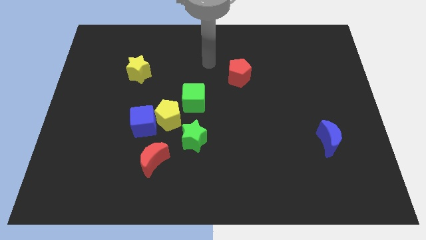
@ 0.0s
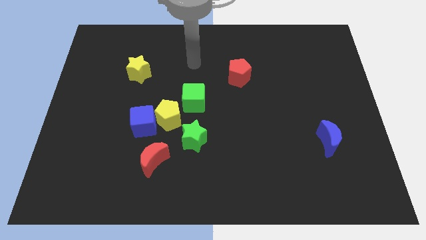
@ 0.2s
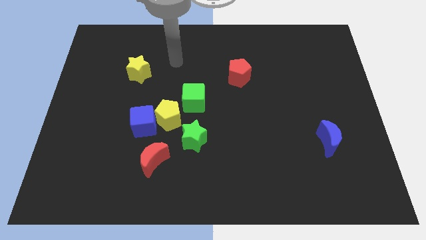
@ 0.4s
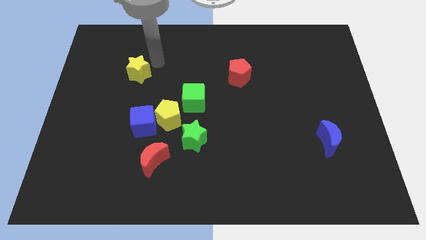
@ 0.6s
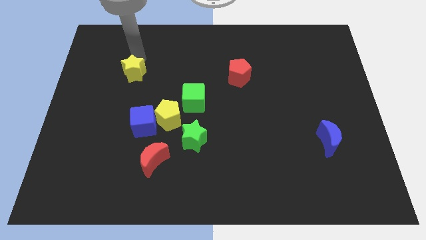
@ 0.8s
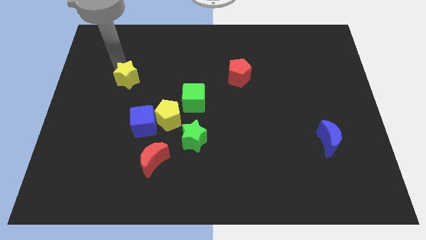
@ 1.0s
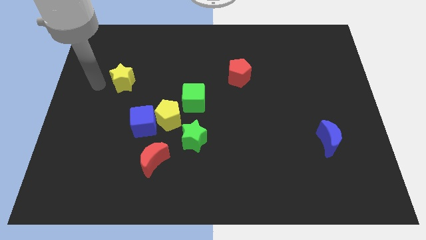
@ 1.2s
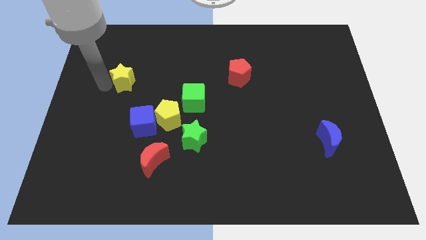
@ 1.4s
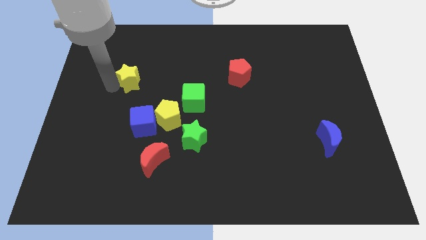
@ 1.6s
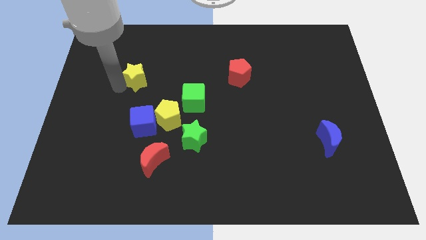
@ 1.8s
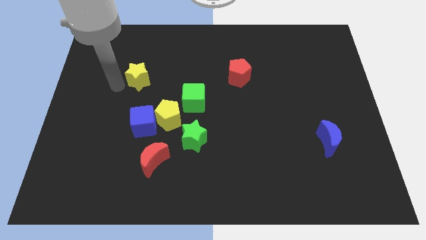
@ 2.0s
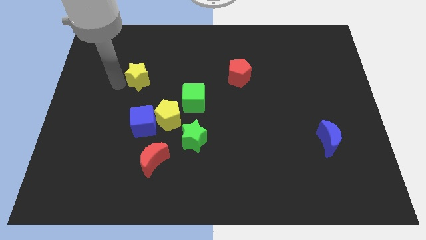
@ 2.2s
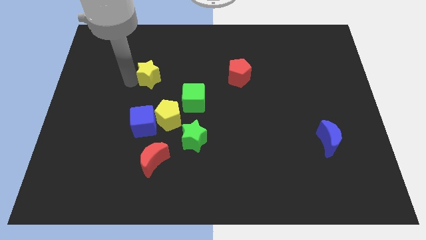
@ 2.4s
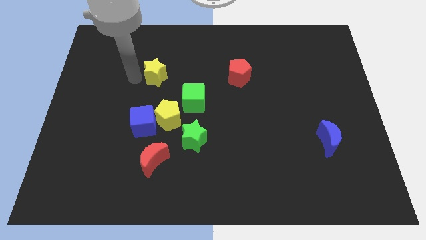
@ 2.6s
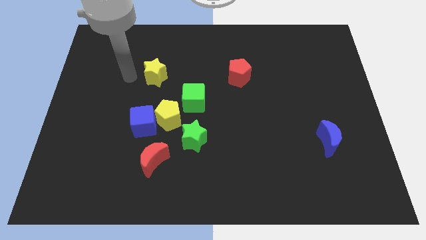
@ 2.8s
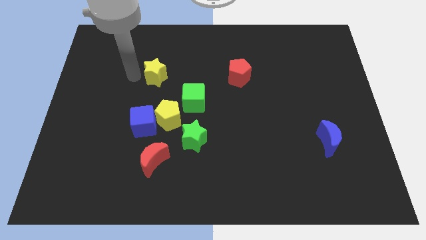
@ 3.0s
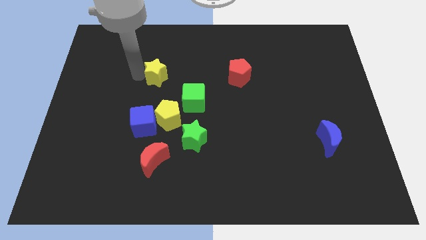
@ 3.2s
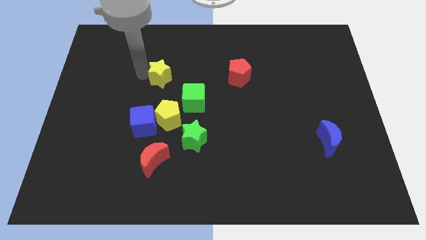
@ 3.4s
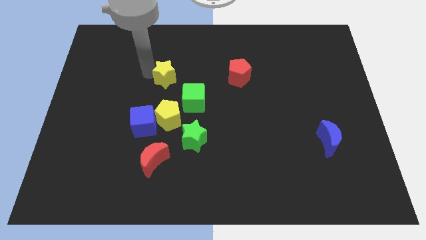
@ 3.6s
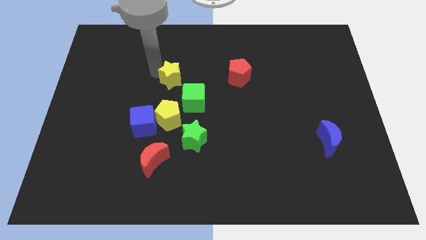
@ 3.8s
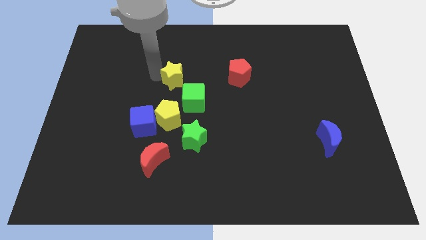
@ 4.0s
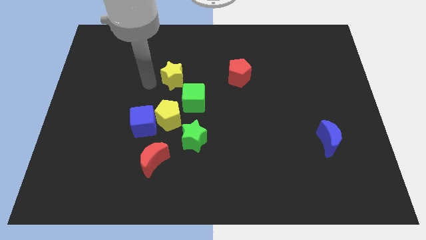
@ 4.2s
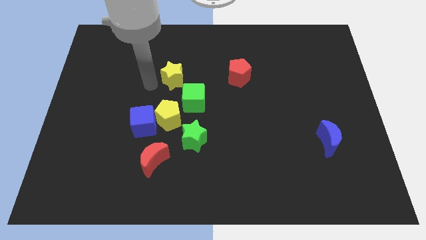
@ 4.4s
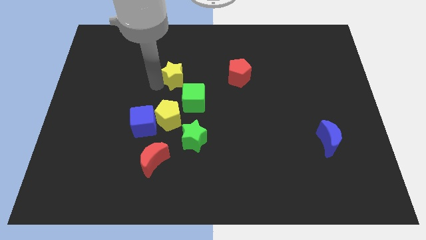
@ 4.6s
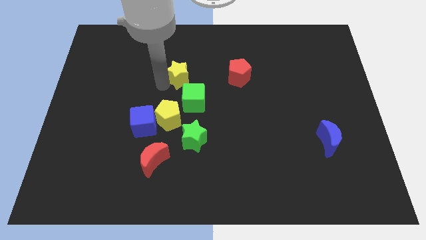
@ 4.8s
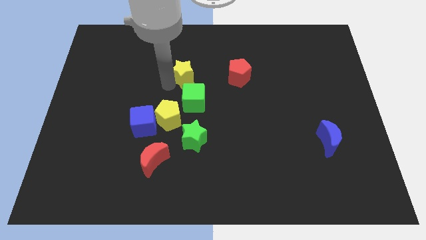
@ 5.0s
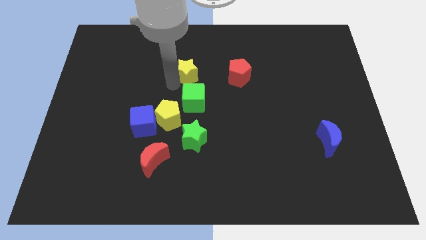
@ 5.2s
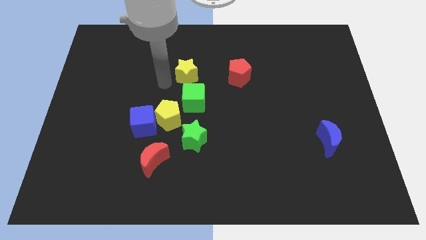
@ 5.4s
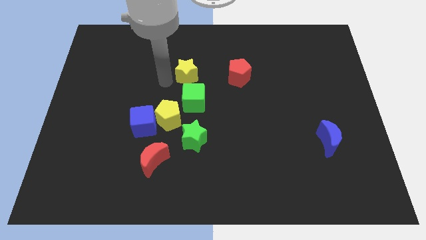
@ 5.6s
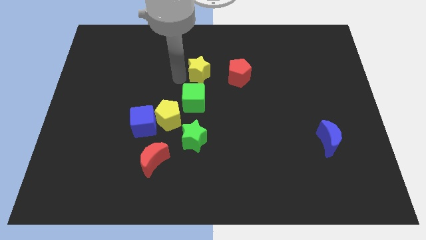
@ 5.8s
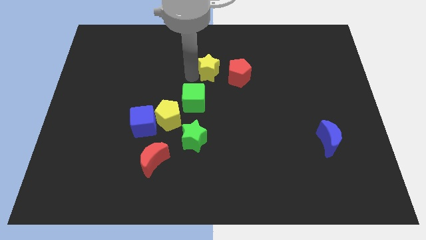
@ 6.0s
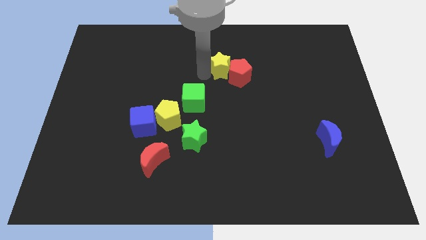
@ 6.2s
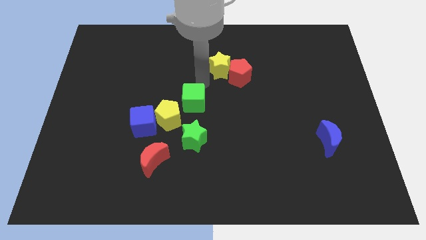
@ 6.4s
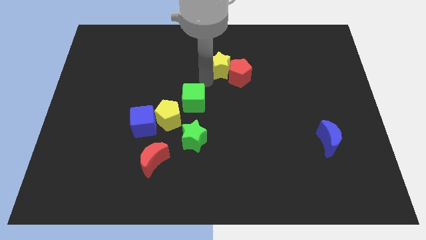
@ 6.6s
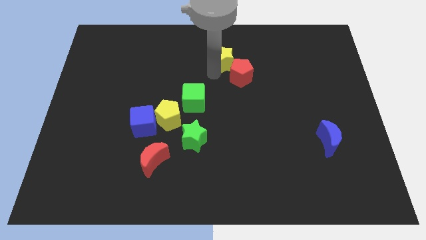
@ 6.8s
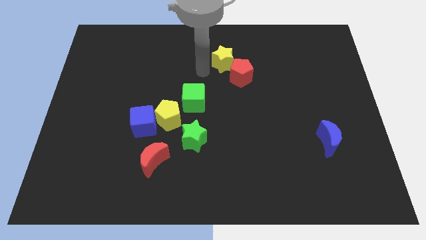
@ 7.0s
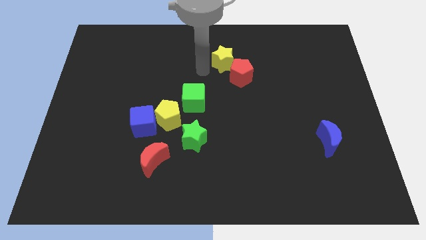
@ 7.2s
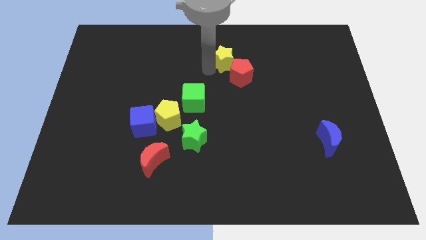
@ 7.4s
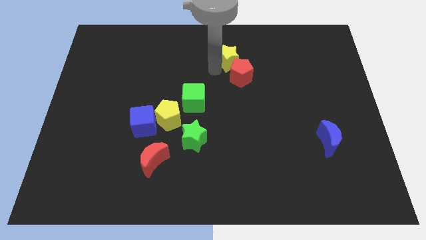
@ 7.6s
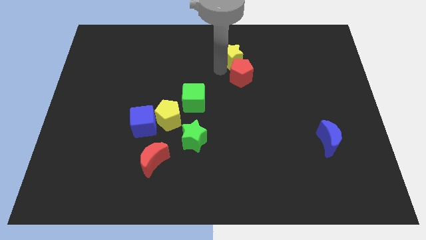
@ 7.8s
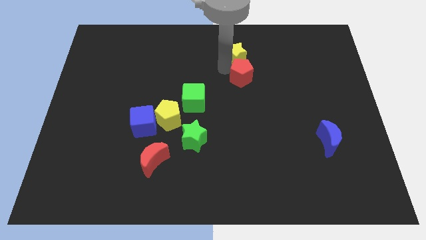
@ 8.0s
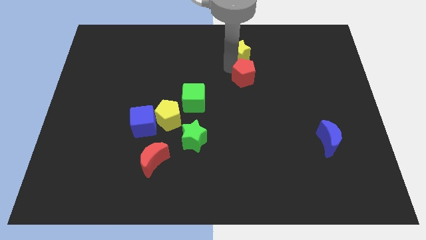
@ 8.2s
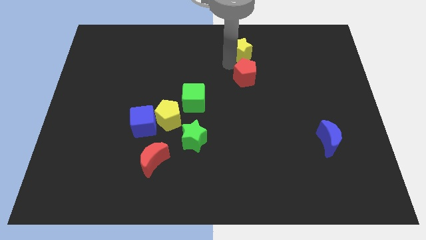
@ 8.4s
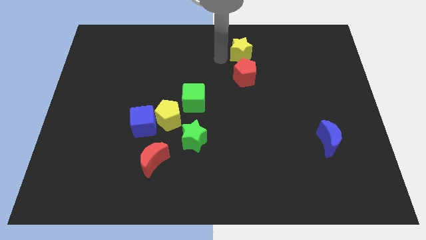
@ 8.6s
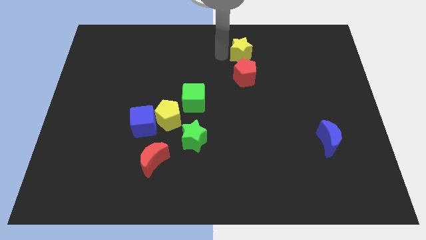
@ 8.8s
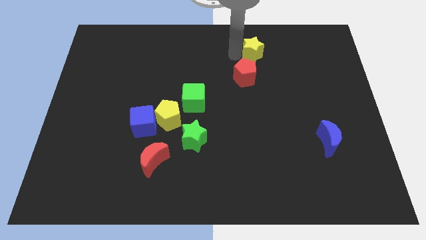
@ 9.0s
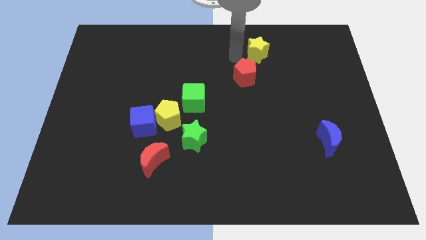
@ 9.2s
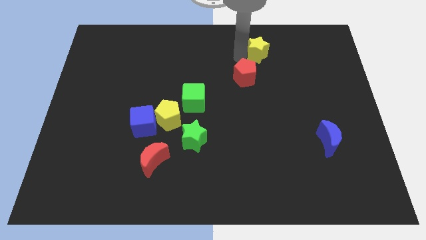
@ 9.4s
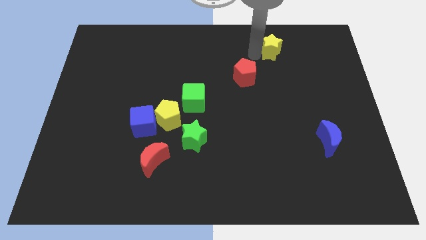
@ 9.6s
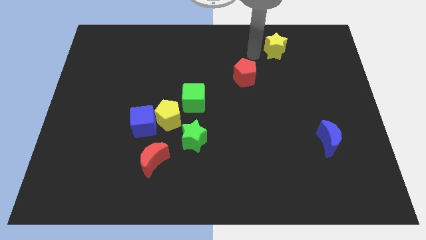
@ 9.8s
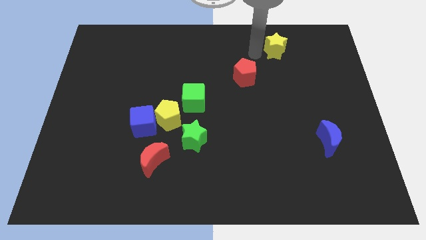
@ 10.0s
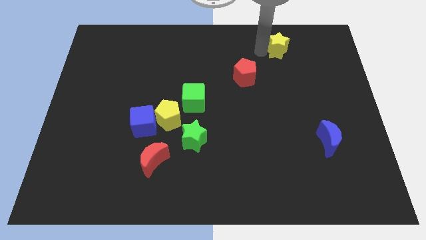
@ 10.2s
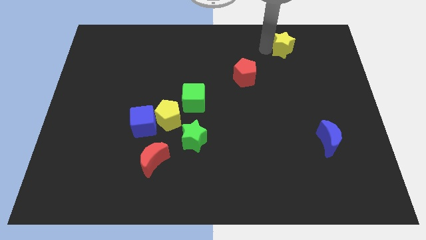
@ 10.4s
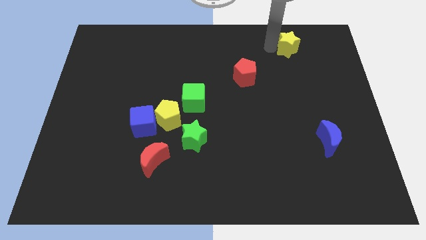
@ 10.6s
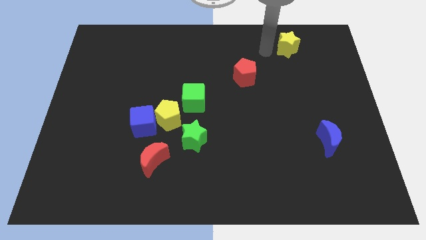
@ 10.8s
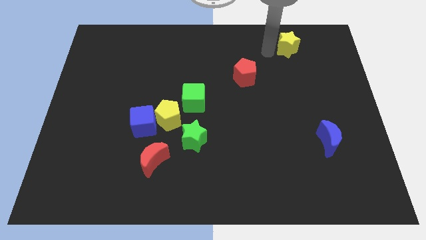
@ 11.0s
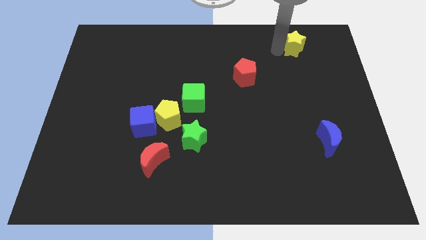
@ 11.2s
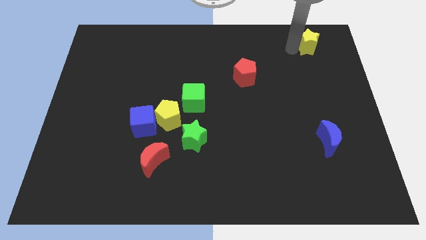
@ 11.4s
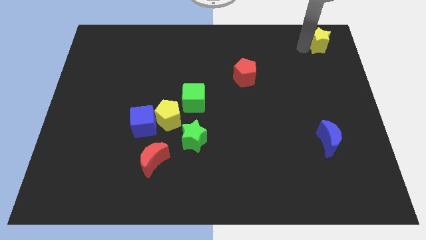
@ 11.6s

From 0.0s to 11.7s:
put the yellow star to the upper right corner

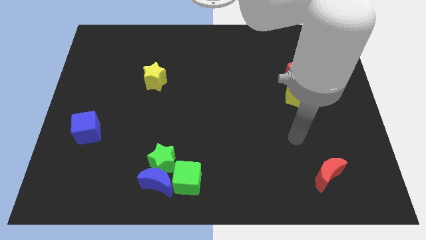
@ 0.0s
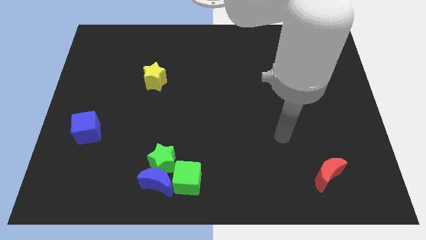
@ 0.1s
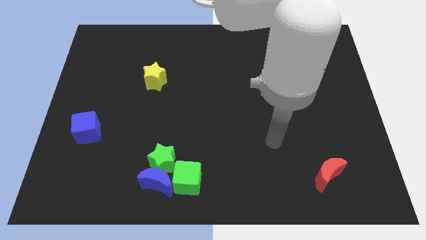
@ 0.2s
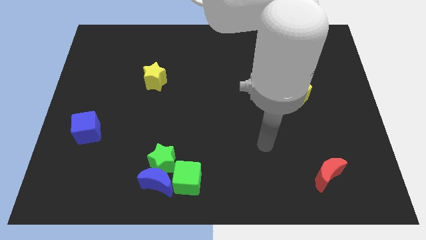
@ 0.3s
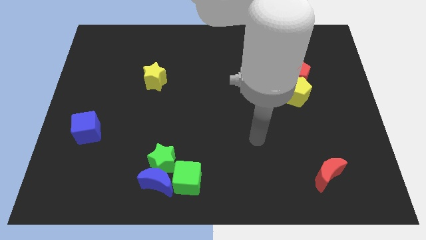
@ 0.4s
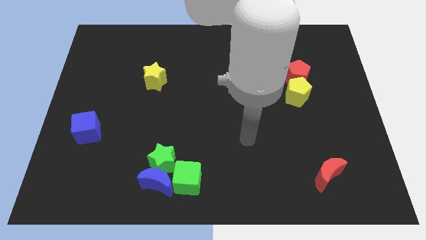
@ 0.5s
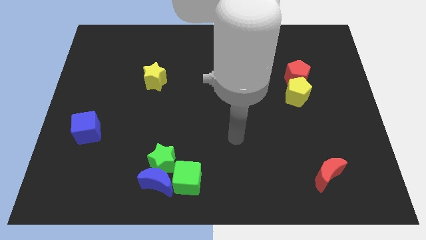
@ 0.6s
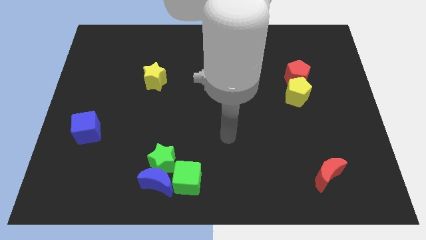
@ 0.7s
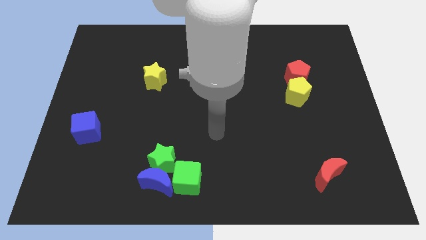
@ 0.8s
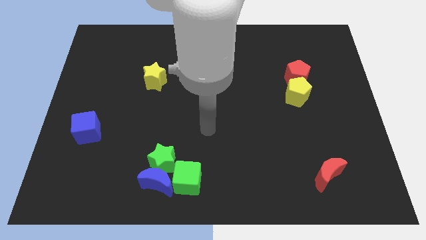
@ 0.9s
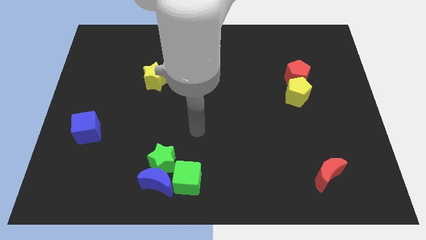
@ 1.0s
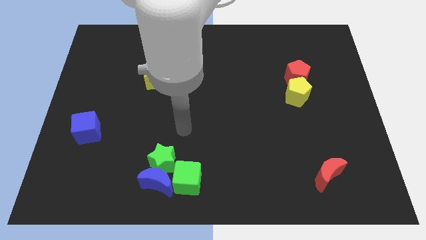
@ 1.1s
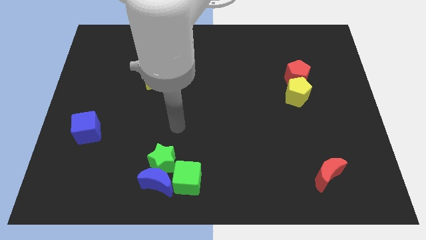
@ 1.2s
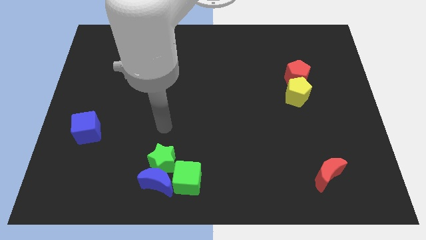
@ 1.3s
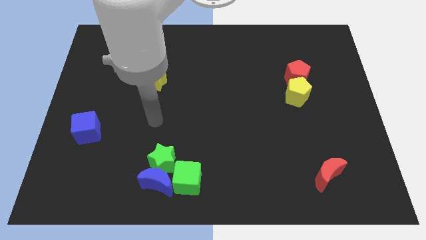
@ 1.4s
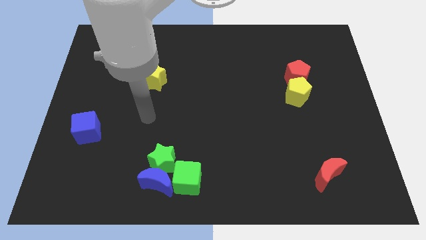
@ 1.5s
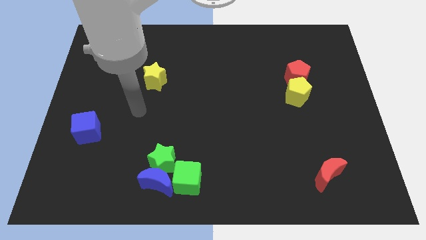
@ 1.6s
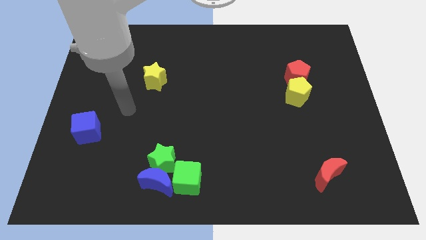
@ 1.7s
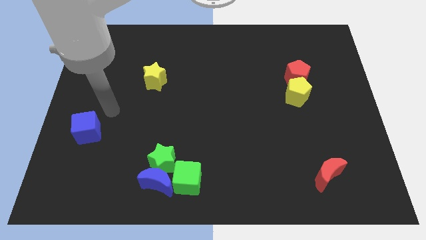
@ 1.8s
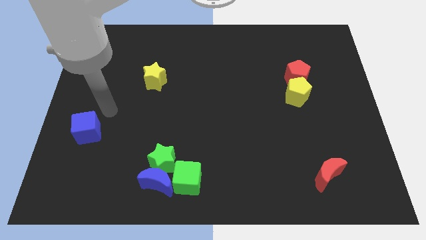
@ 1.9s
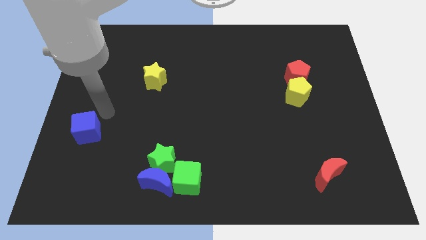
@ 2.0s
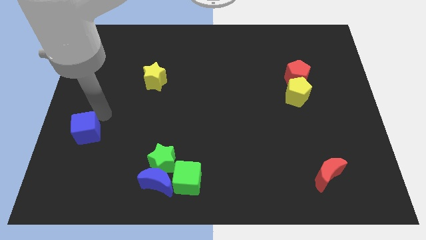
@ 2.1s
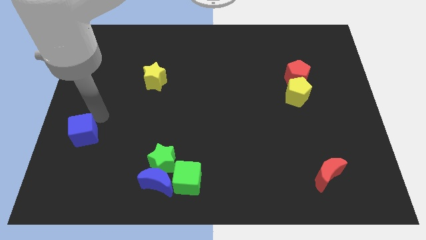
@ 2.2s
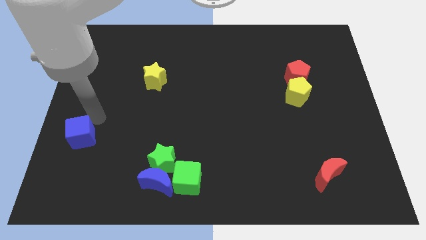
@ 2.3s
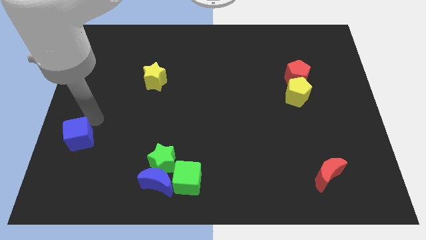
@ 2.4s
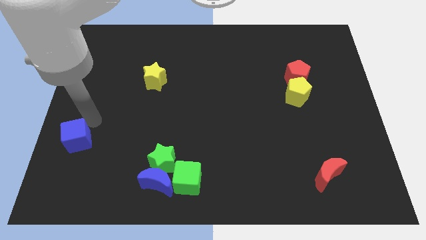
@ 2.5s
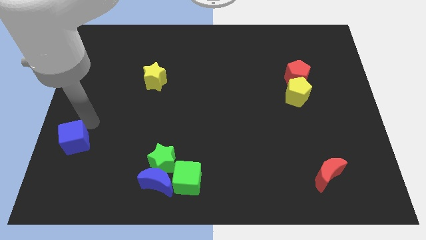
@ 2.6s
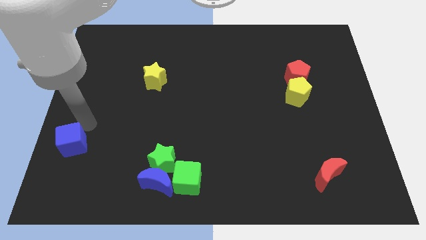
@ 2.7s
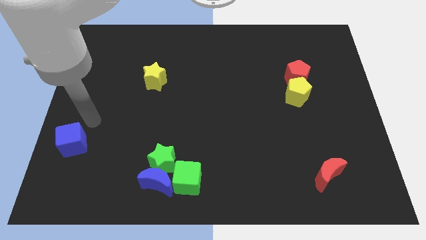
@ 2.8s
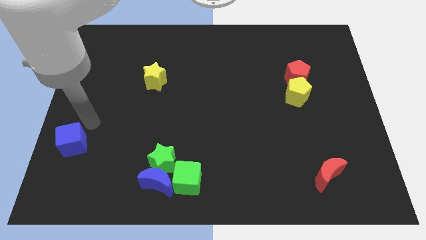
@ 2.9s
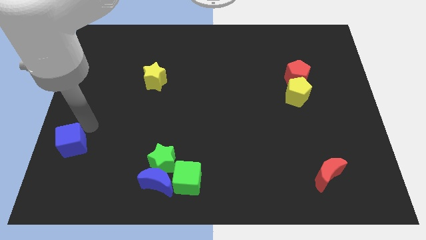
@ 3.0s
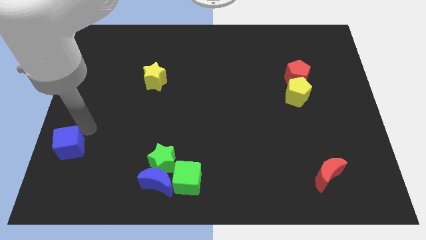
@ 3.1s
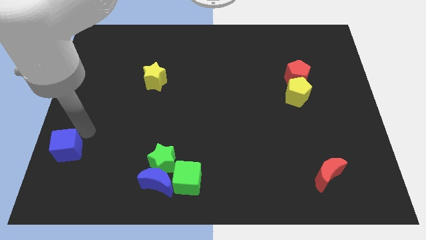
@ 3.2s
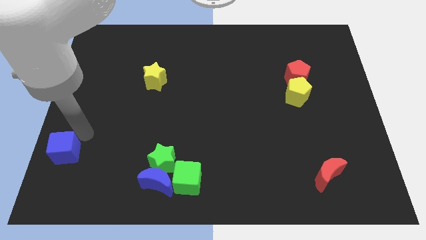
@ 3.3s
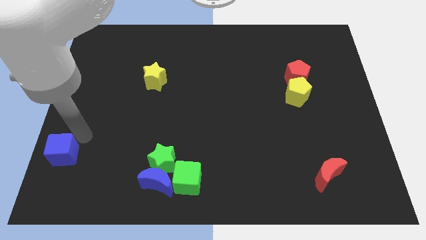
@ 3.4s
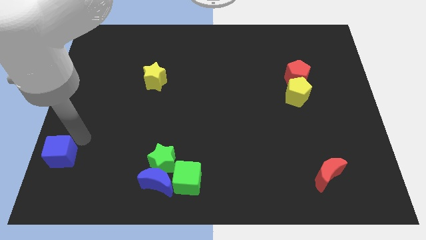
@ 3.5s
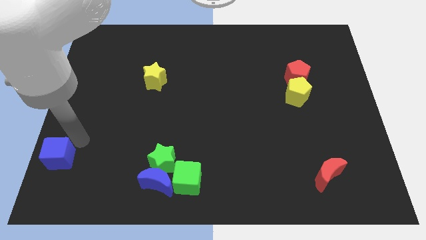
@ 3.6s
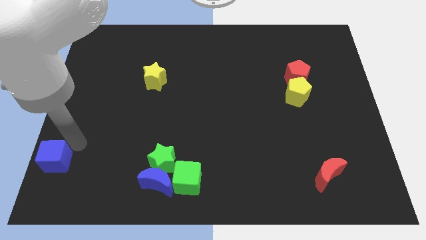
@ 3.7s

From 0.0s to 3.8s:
push the blue cube to the bottom left
